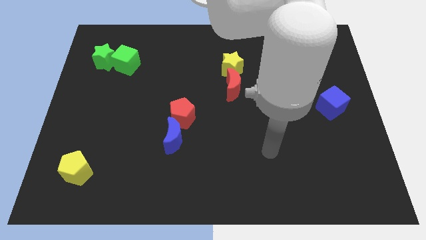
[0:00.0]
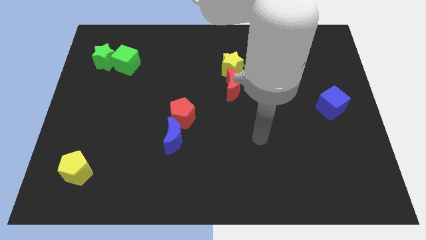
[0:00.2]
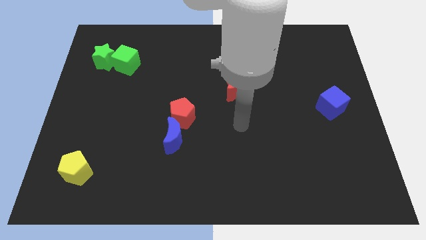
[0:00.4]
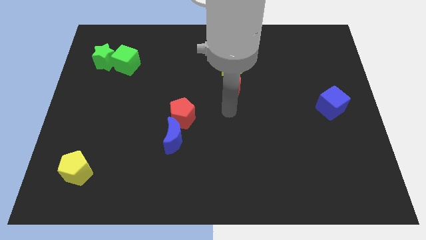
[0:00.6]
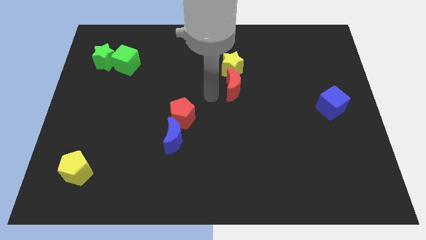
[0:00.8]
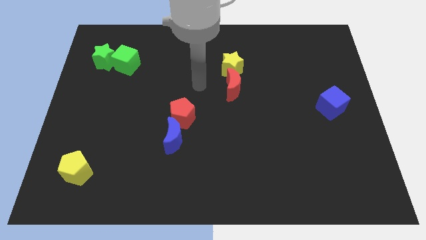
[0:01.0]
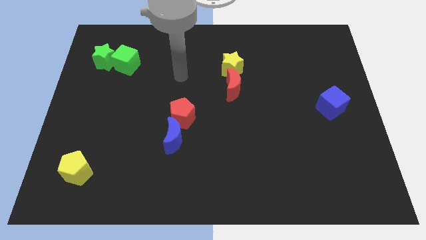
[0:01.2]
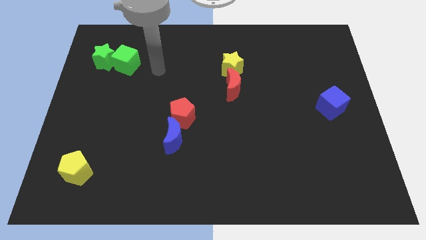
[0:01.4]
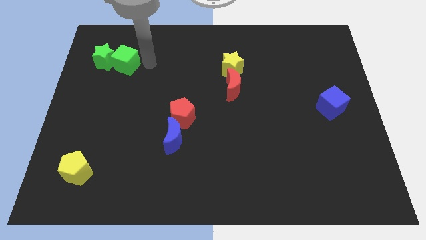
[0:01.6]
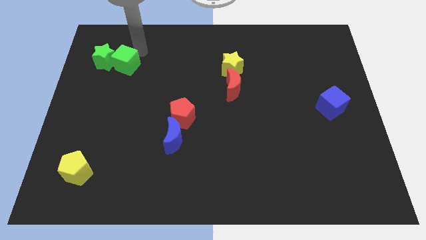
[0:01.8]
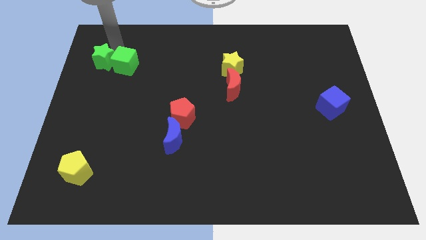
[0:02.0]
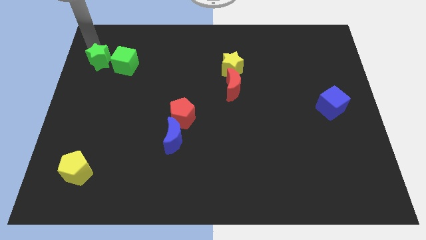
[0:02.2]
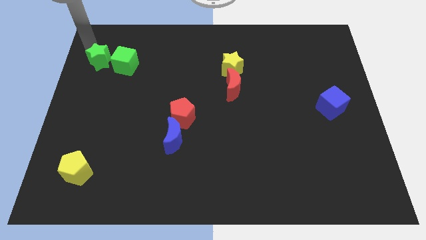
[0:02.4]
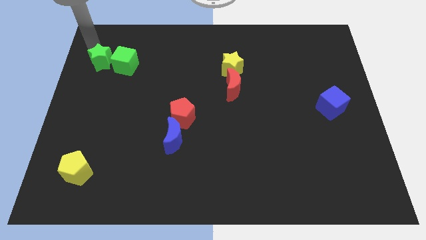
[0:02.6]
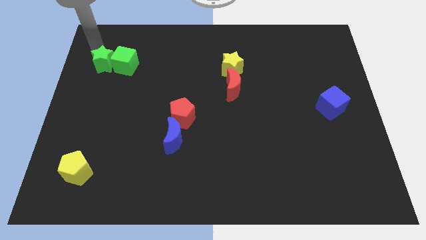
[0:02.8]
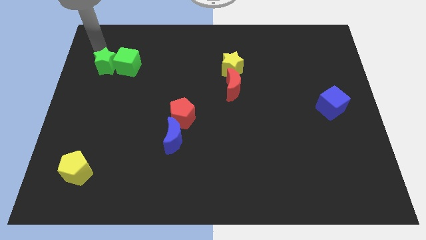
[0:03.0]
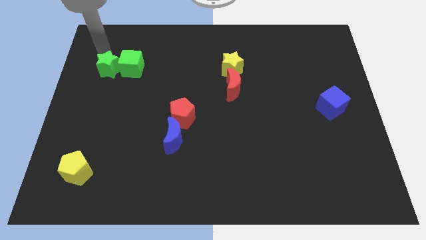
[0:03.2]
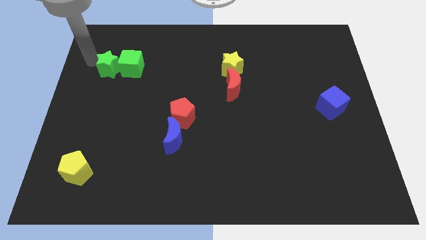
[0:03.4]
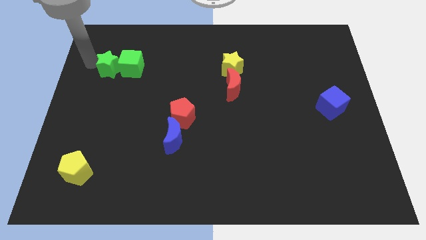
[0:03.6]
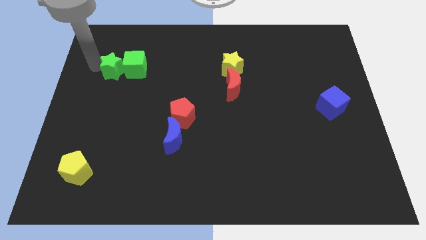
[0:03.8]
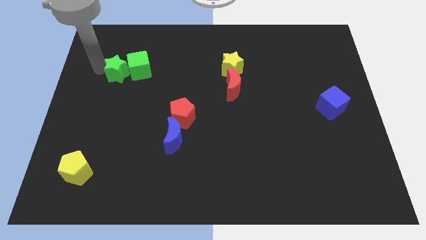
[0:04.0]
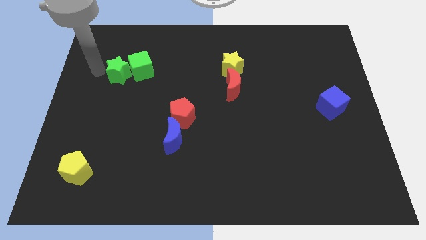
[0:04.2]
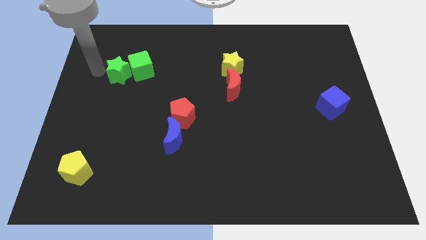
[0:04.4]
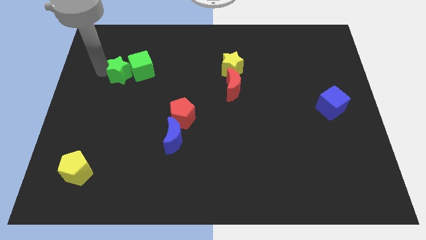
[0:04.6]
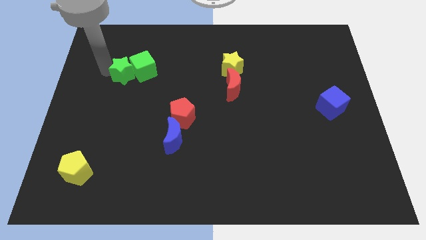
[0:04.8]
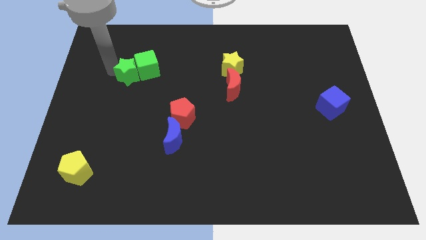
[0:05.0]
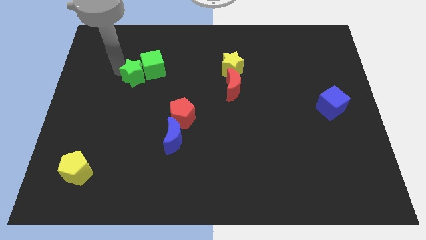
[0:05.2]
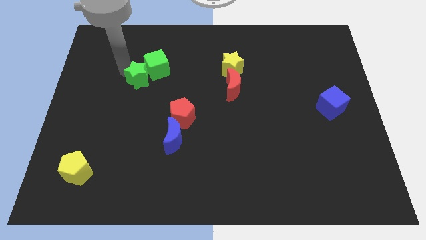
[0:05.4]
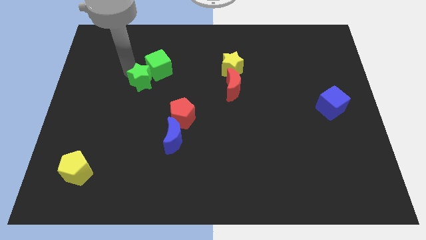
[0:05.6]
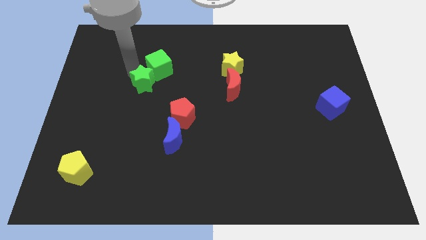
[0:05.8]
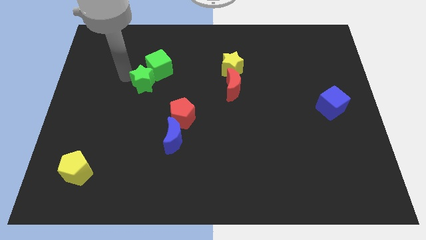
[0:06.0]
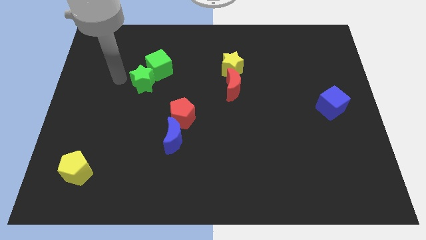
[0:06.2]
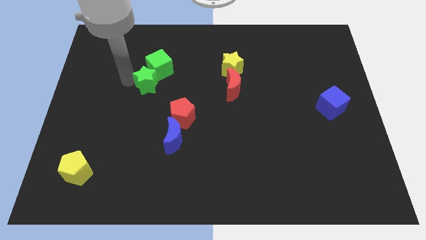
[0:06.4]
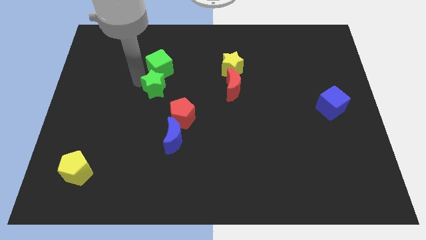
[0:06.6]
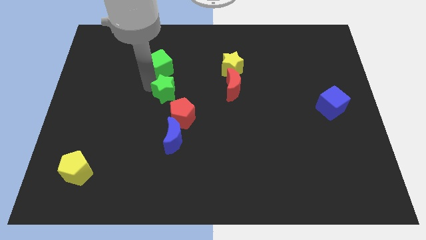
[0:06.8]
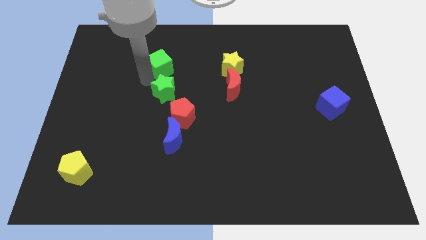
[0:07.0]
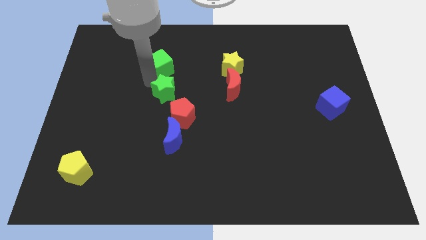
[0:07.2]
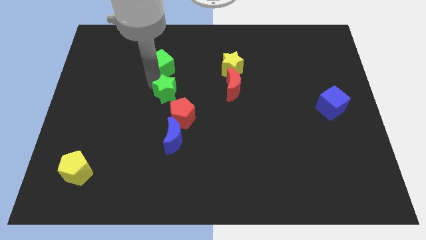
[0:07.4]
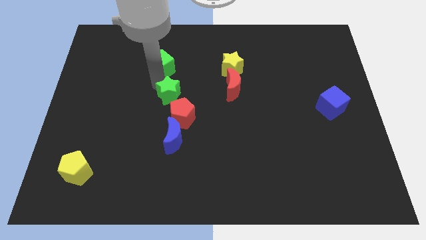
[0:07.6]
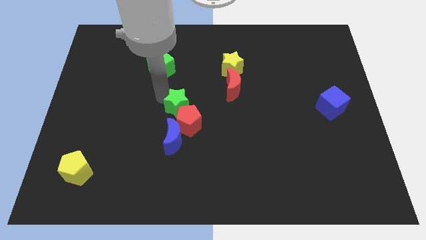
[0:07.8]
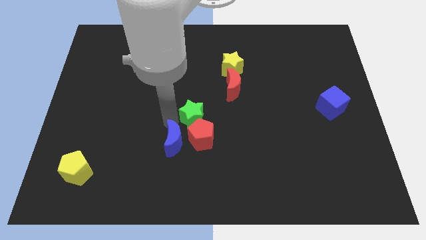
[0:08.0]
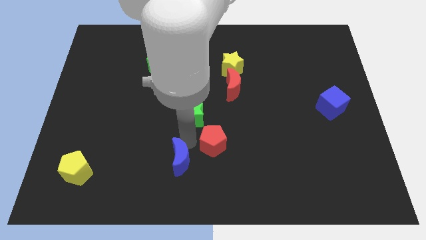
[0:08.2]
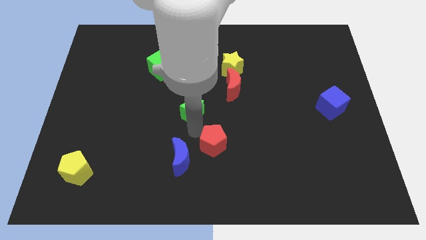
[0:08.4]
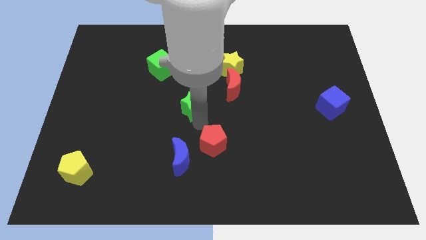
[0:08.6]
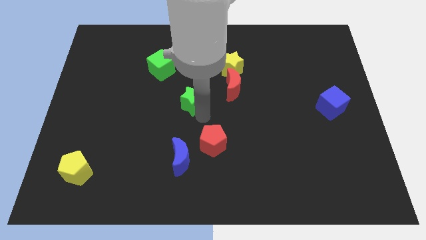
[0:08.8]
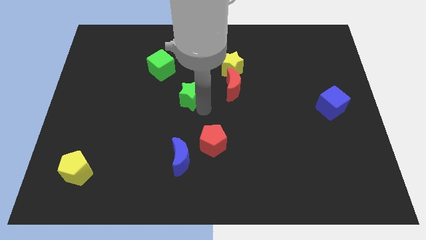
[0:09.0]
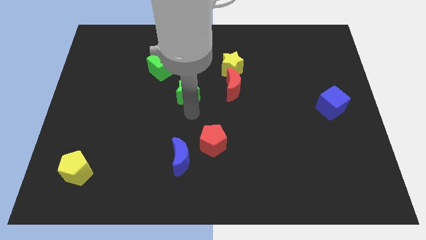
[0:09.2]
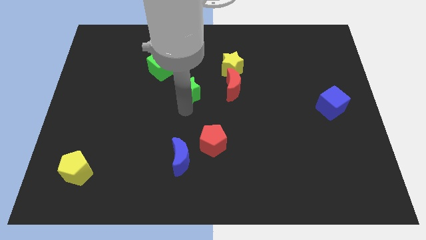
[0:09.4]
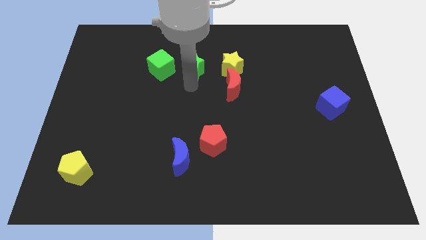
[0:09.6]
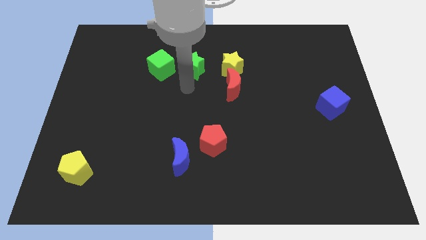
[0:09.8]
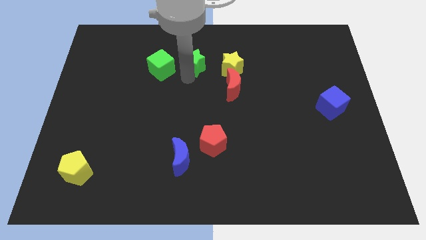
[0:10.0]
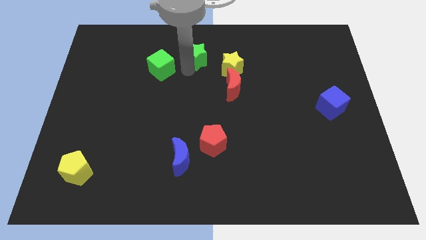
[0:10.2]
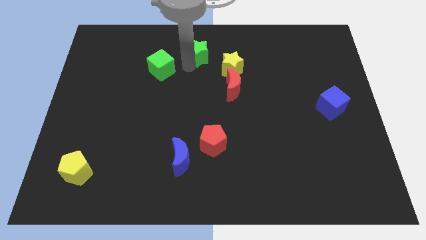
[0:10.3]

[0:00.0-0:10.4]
put the green star to the top

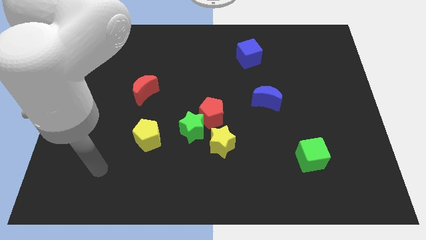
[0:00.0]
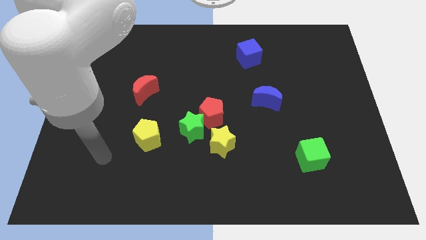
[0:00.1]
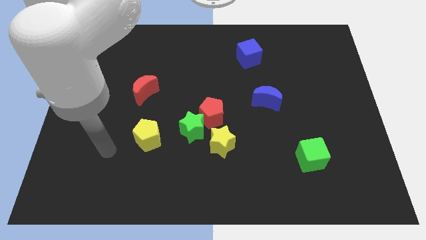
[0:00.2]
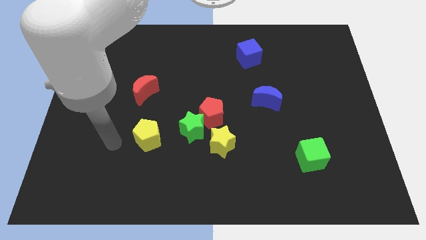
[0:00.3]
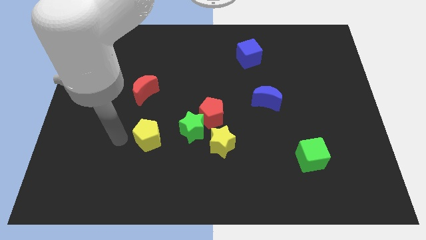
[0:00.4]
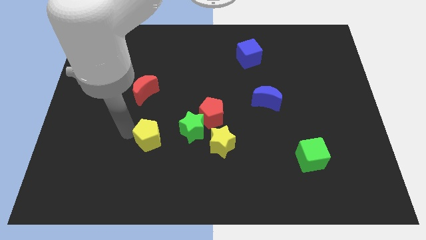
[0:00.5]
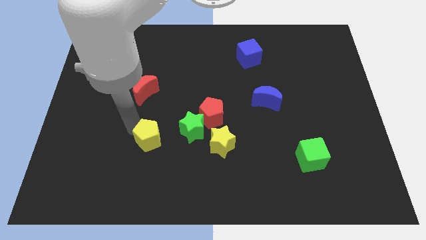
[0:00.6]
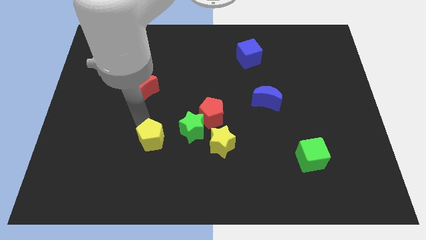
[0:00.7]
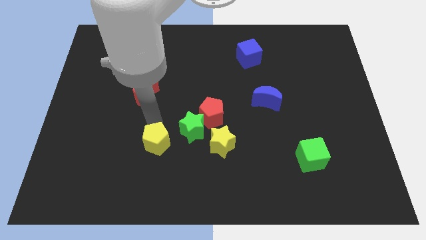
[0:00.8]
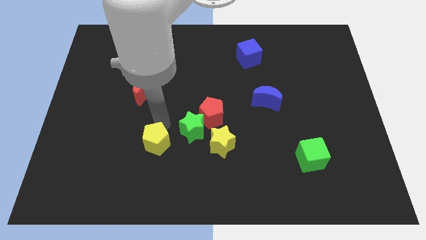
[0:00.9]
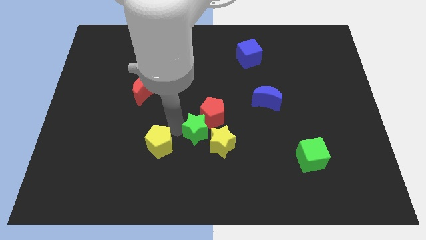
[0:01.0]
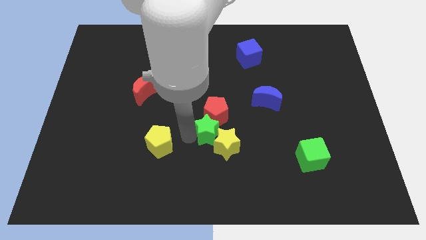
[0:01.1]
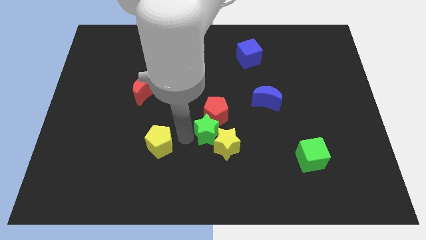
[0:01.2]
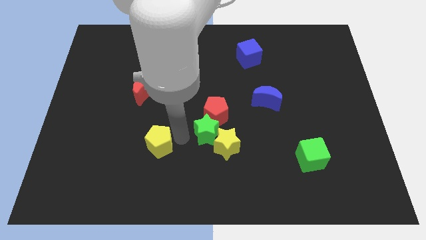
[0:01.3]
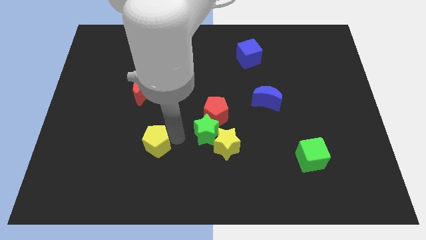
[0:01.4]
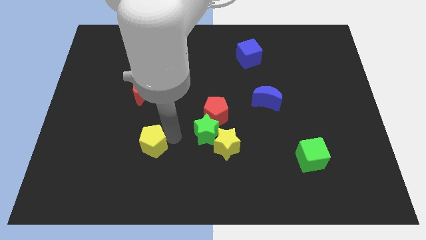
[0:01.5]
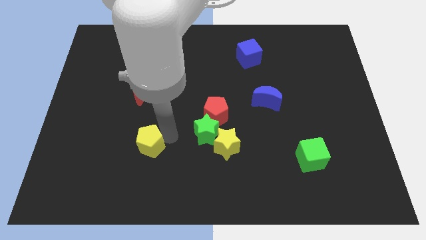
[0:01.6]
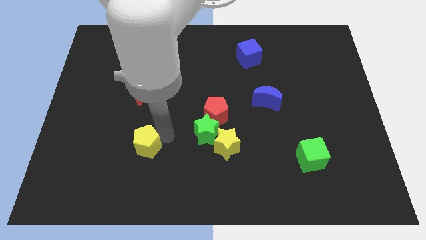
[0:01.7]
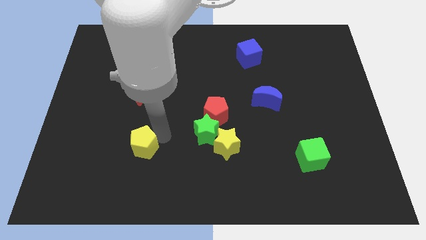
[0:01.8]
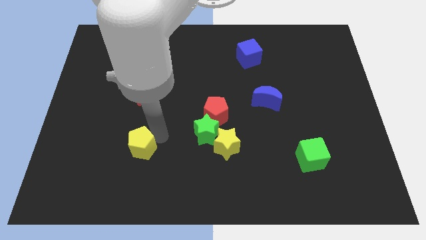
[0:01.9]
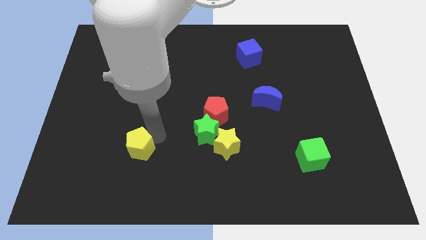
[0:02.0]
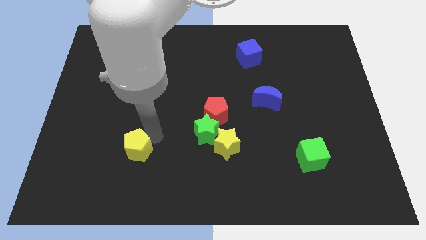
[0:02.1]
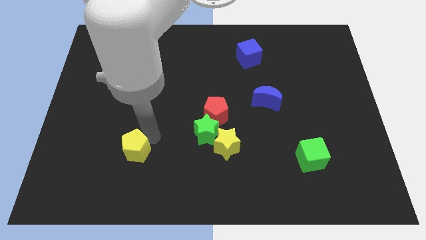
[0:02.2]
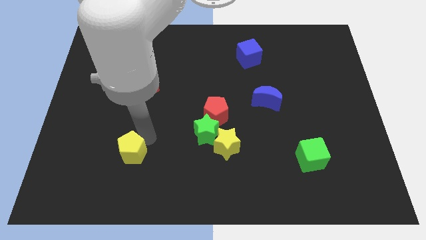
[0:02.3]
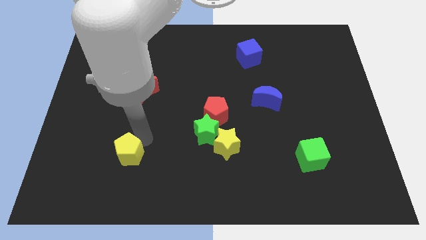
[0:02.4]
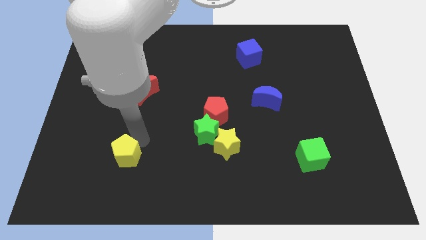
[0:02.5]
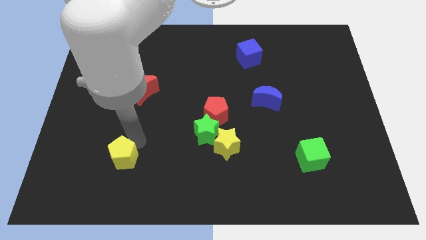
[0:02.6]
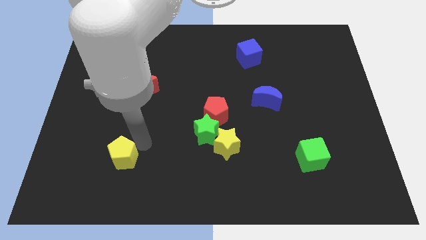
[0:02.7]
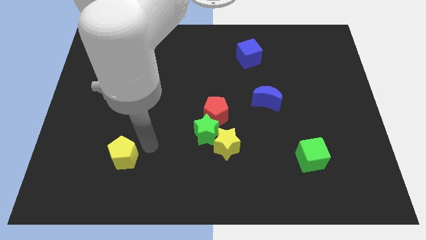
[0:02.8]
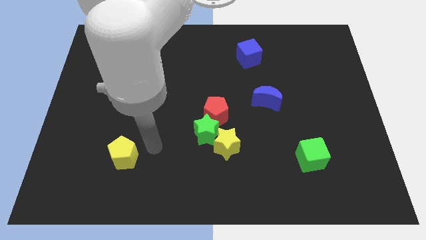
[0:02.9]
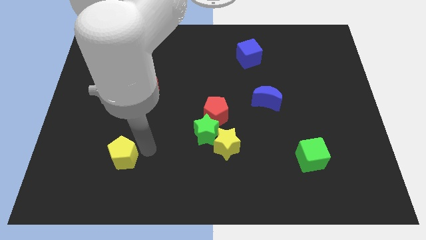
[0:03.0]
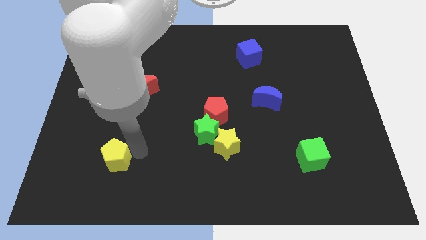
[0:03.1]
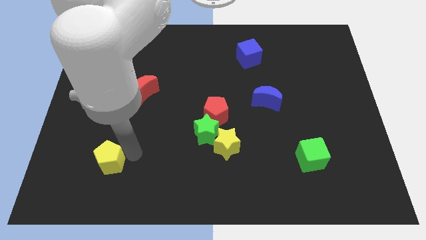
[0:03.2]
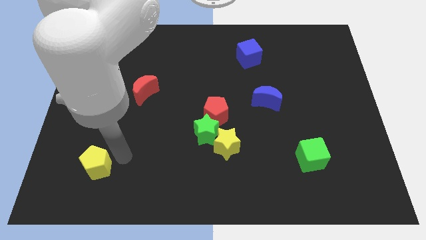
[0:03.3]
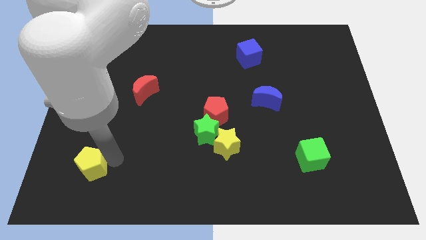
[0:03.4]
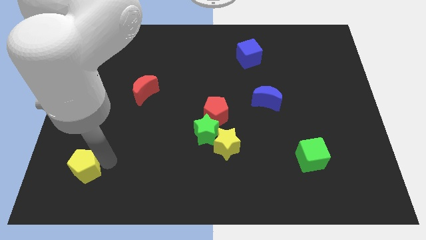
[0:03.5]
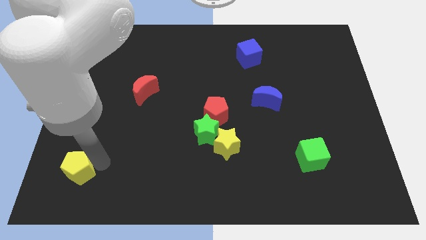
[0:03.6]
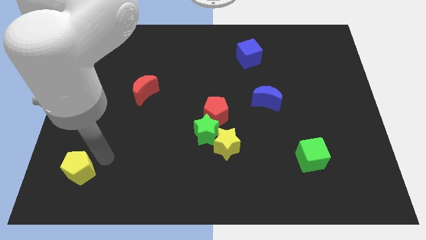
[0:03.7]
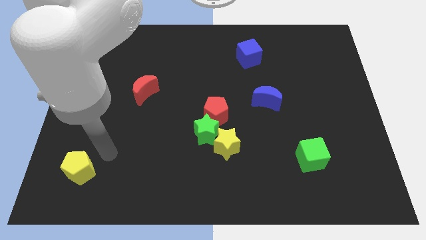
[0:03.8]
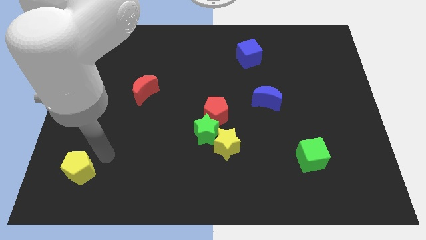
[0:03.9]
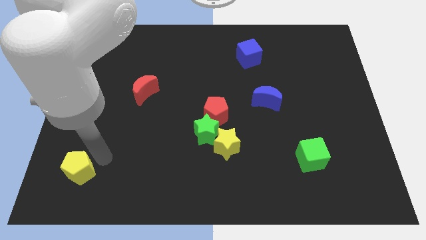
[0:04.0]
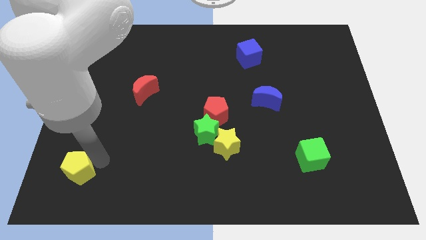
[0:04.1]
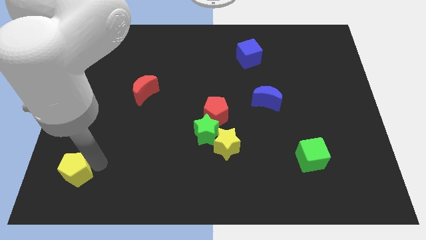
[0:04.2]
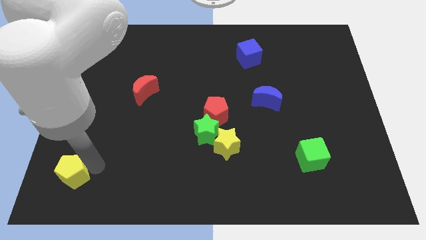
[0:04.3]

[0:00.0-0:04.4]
push the yellow pentagon to the lower left corner
